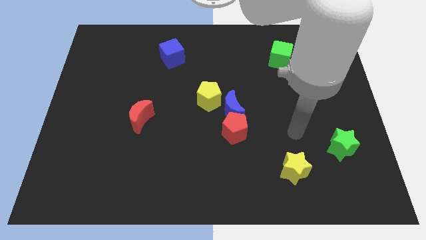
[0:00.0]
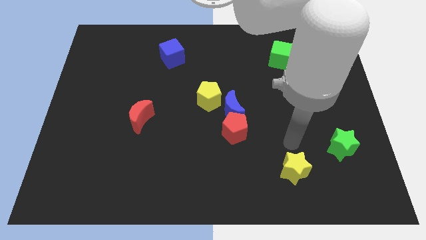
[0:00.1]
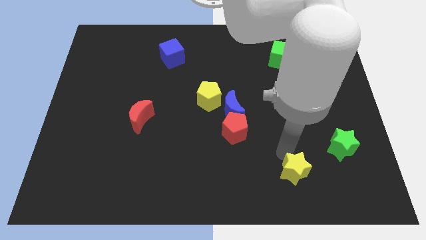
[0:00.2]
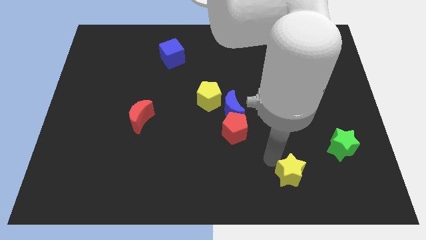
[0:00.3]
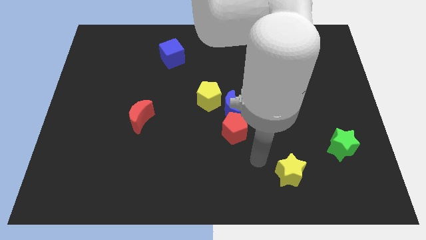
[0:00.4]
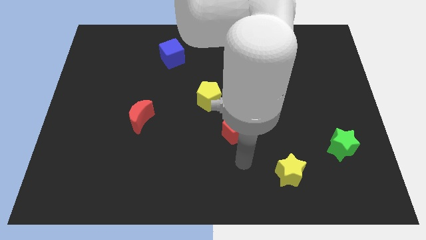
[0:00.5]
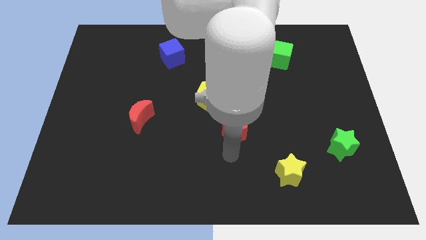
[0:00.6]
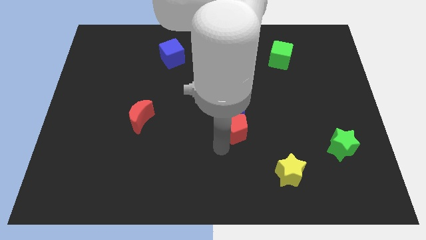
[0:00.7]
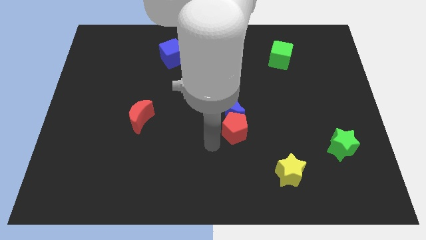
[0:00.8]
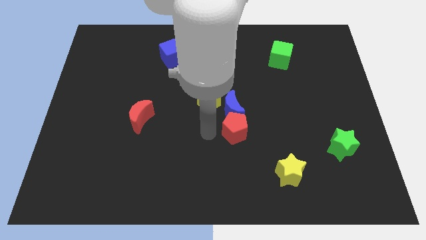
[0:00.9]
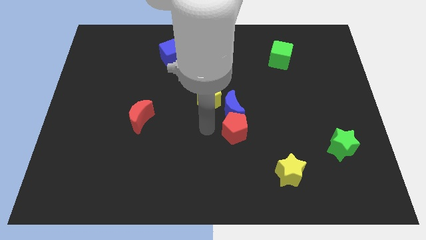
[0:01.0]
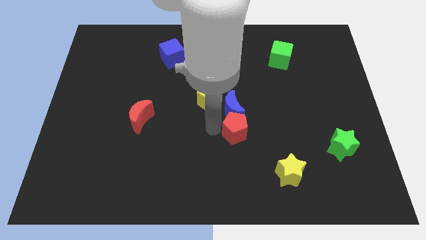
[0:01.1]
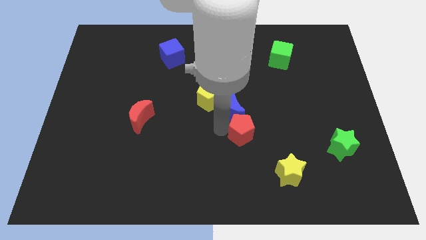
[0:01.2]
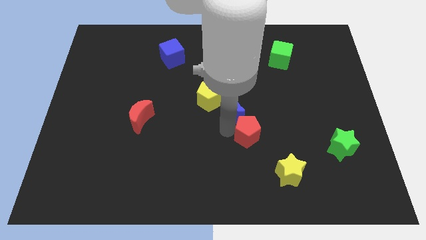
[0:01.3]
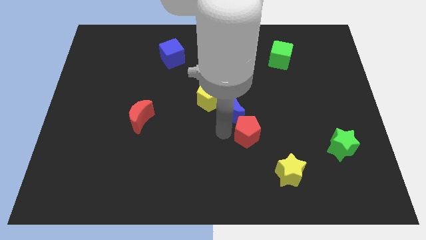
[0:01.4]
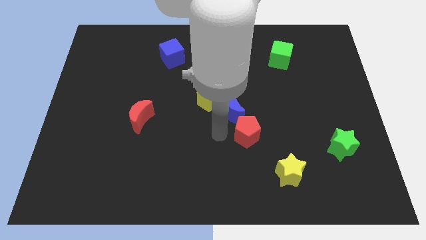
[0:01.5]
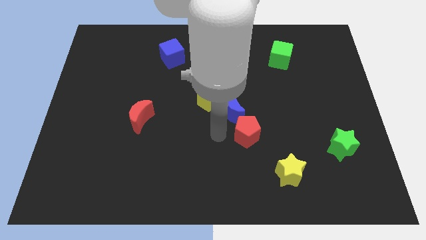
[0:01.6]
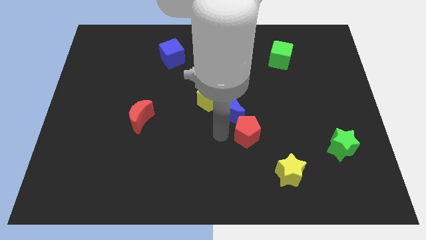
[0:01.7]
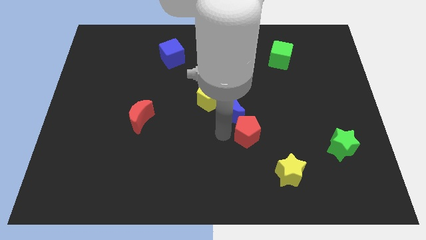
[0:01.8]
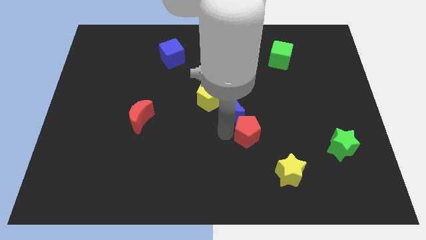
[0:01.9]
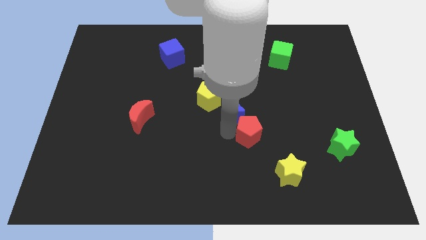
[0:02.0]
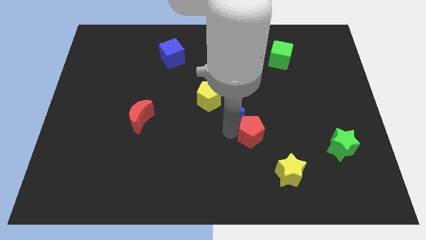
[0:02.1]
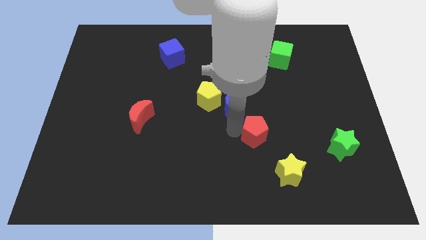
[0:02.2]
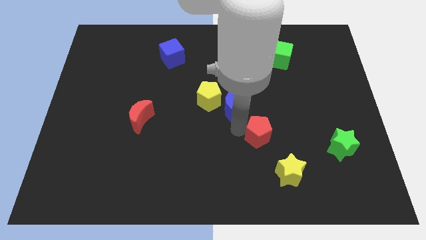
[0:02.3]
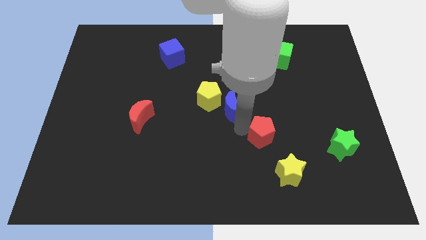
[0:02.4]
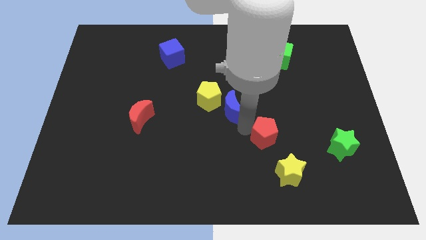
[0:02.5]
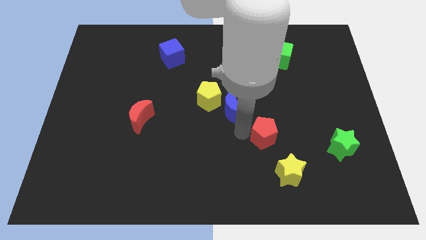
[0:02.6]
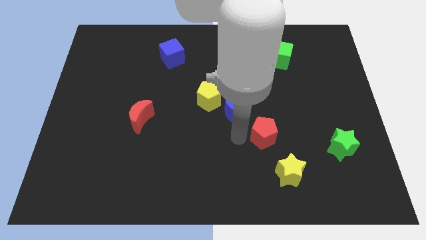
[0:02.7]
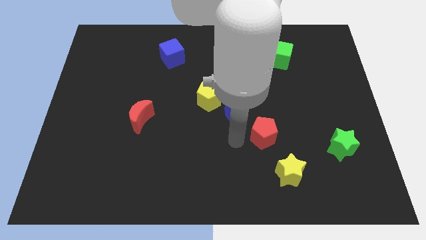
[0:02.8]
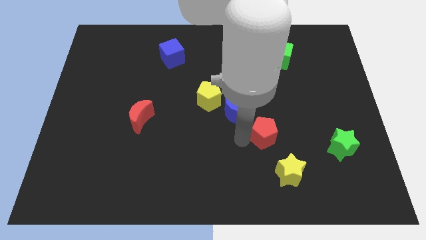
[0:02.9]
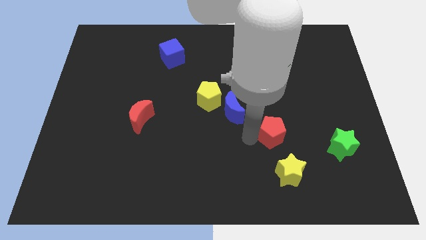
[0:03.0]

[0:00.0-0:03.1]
push the red pentagon a little bit right

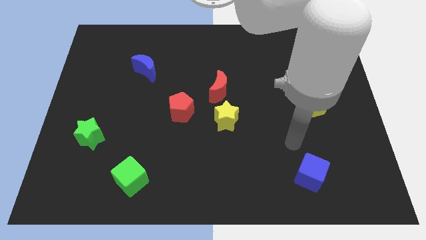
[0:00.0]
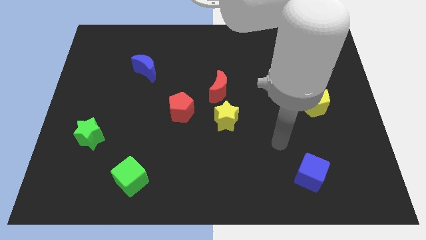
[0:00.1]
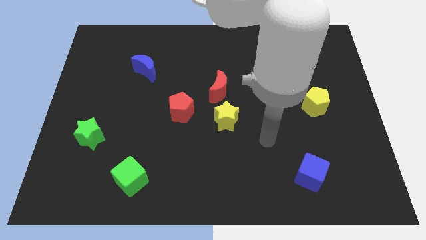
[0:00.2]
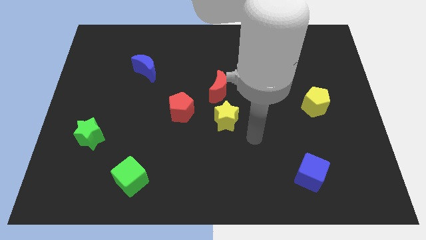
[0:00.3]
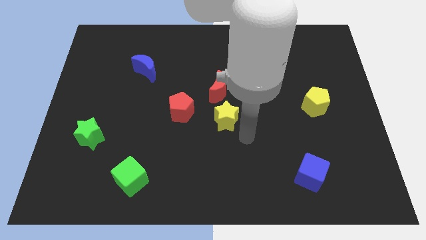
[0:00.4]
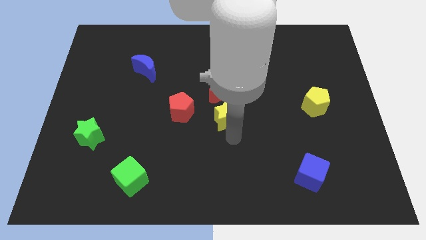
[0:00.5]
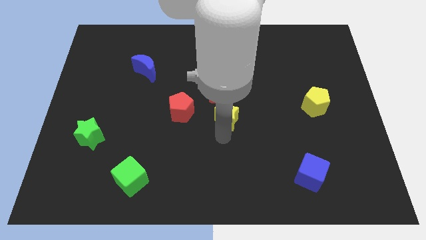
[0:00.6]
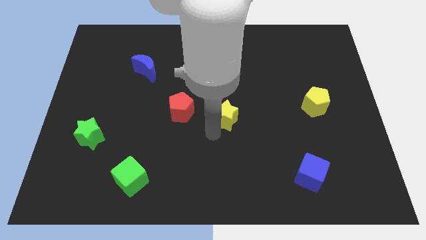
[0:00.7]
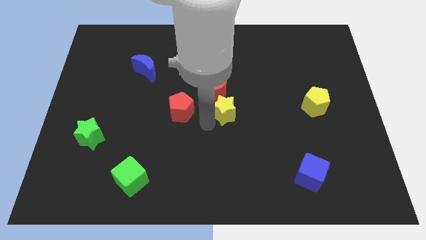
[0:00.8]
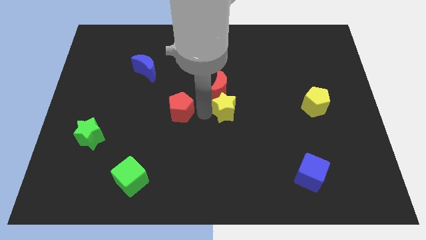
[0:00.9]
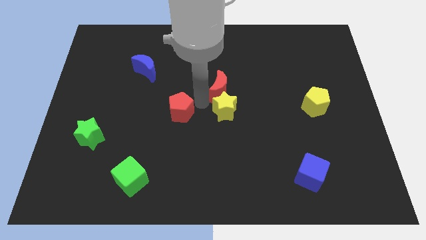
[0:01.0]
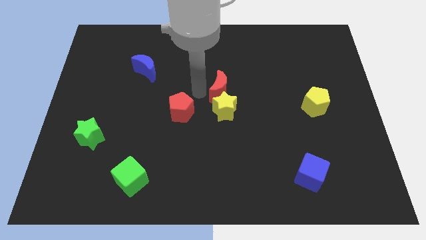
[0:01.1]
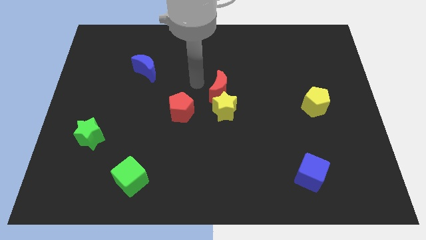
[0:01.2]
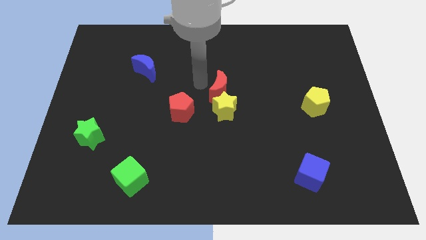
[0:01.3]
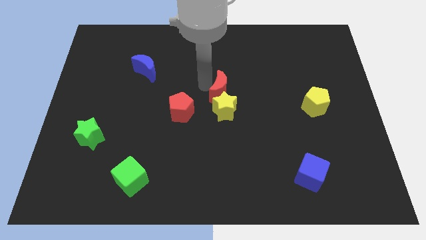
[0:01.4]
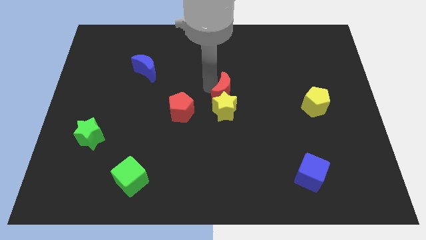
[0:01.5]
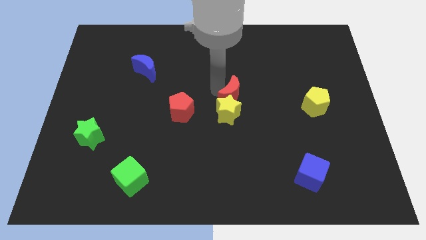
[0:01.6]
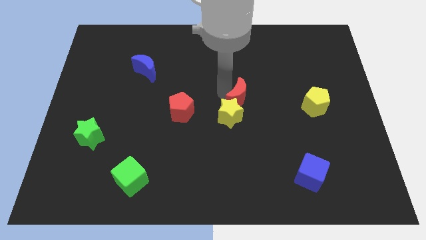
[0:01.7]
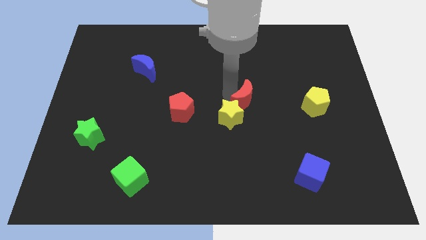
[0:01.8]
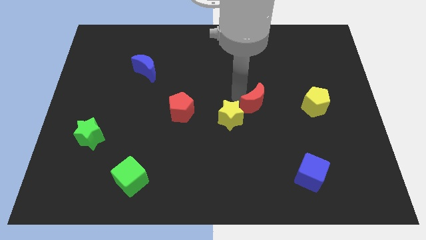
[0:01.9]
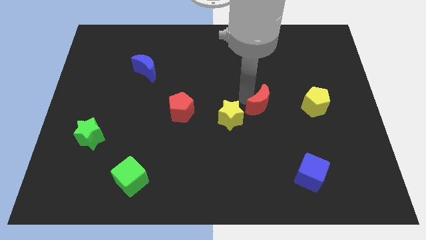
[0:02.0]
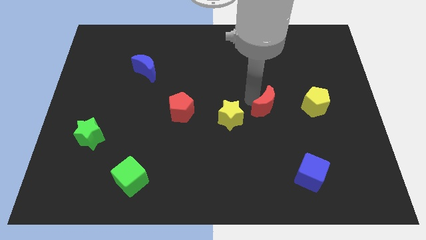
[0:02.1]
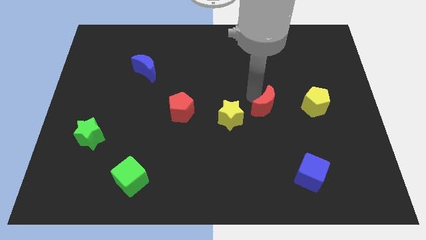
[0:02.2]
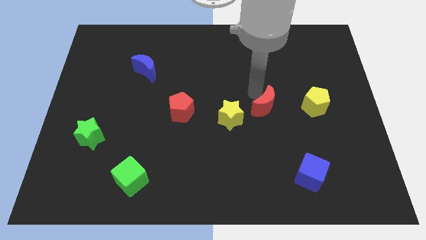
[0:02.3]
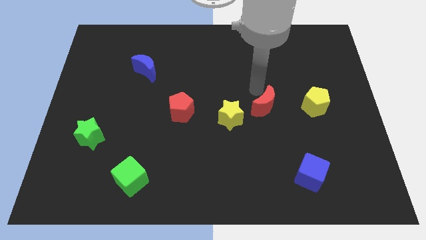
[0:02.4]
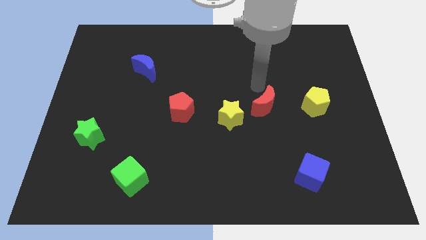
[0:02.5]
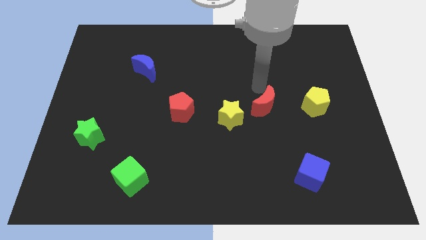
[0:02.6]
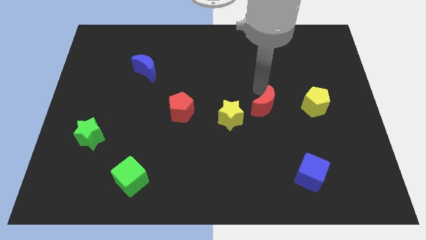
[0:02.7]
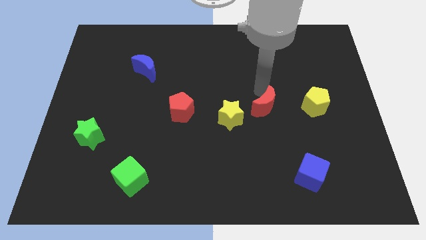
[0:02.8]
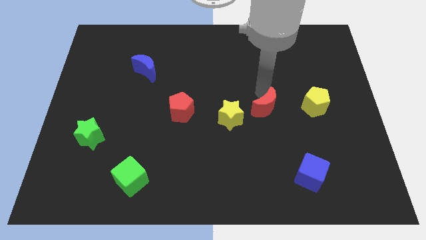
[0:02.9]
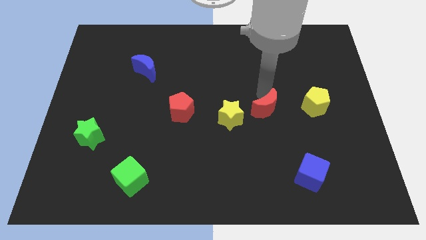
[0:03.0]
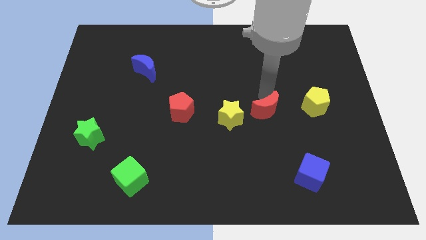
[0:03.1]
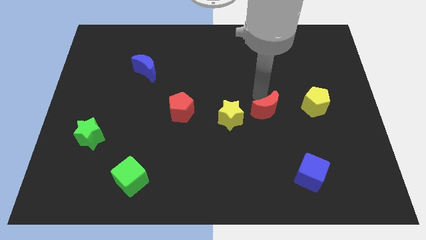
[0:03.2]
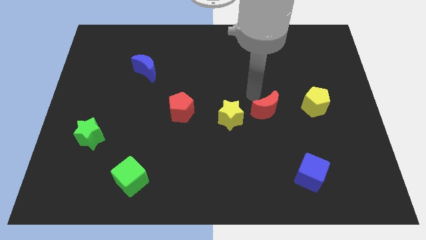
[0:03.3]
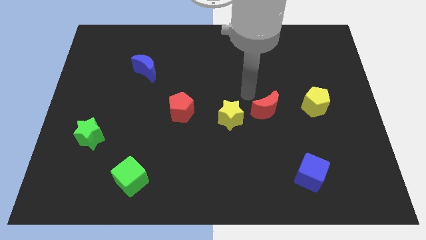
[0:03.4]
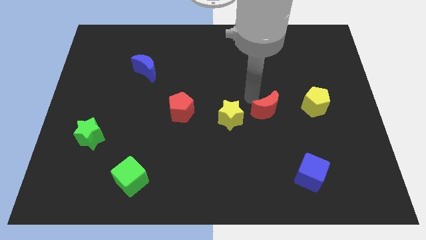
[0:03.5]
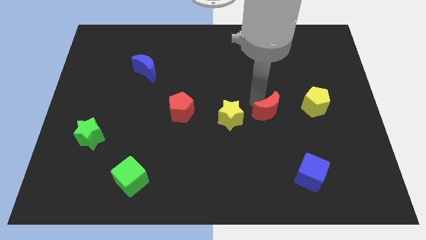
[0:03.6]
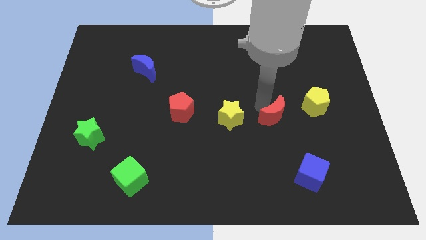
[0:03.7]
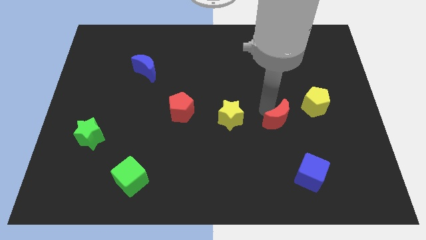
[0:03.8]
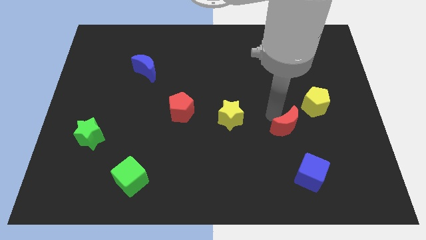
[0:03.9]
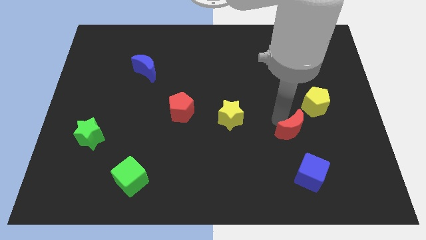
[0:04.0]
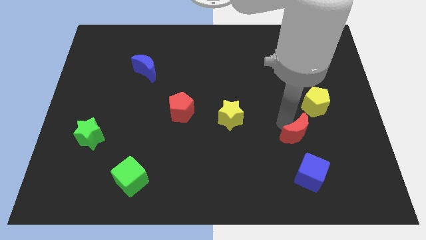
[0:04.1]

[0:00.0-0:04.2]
push the red moon downwards and right

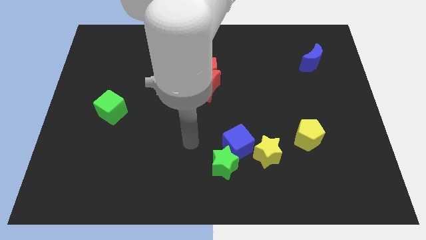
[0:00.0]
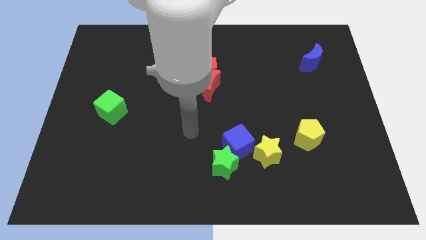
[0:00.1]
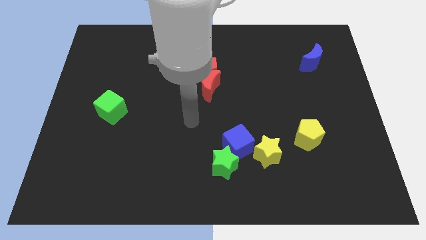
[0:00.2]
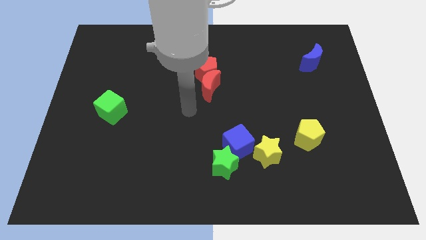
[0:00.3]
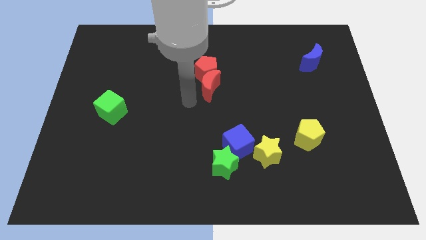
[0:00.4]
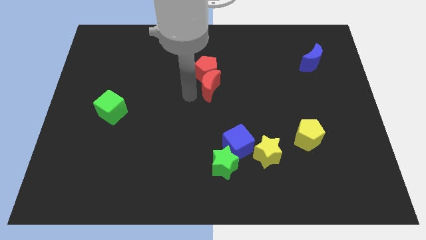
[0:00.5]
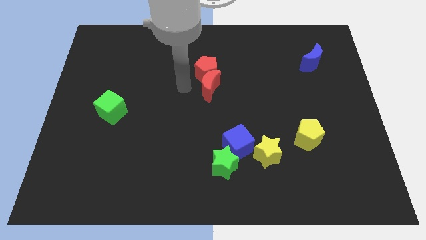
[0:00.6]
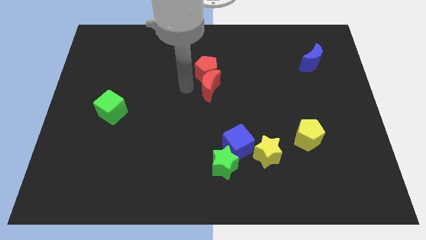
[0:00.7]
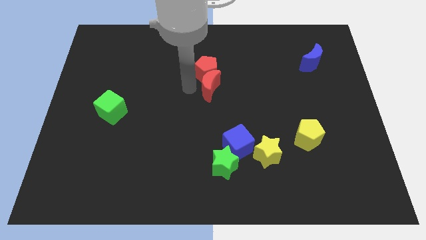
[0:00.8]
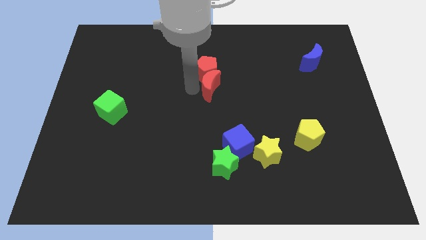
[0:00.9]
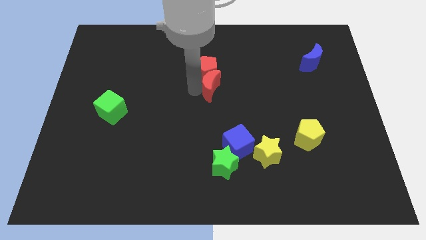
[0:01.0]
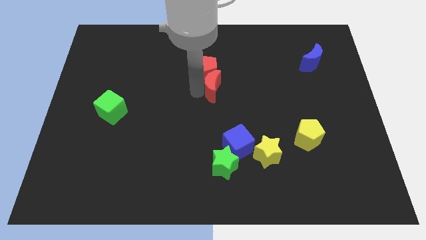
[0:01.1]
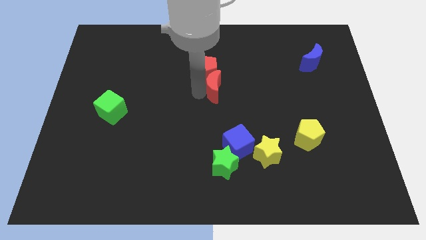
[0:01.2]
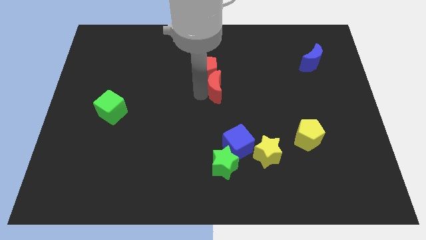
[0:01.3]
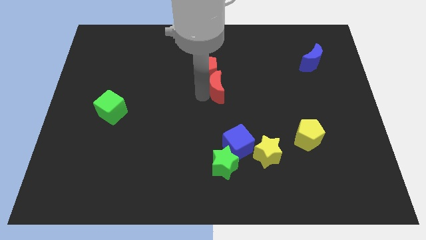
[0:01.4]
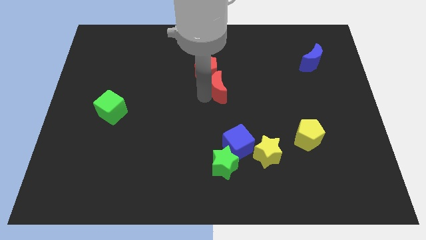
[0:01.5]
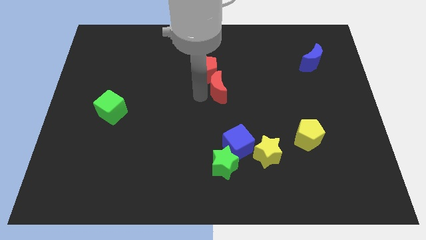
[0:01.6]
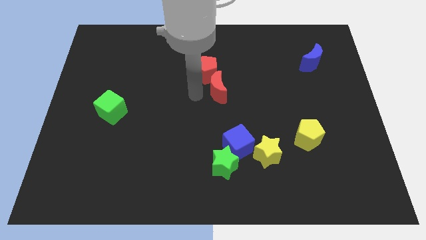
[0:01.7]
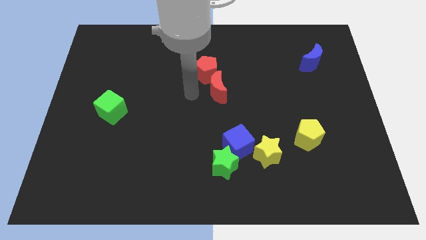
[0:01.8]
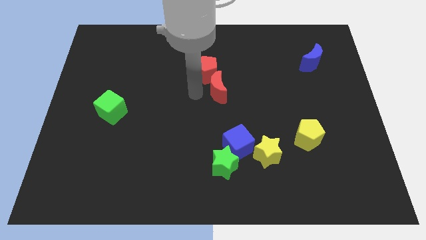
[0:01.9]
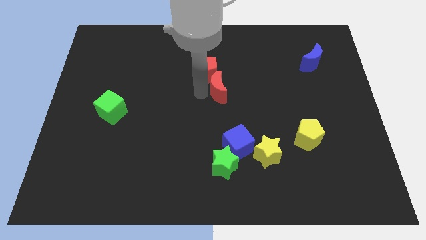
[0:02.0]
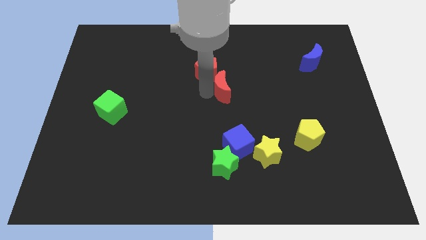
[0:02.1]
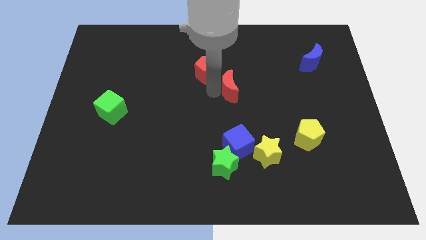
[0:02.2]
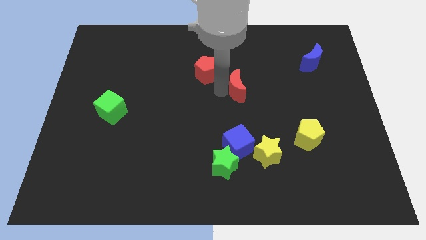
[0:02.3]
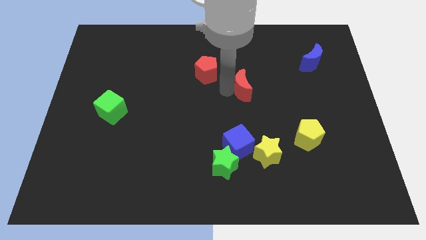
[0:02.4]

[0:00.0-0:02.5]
slide the red moon right a little bit
